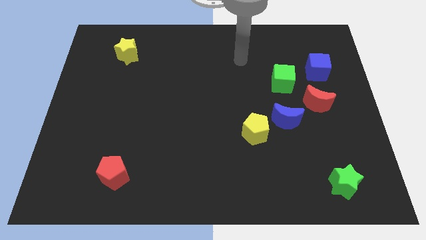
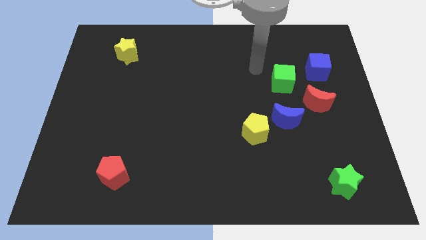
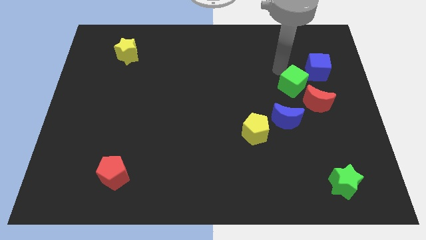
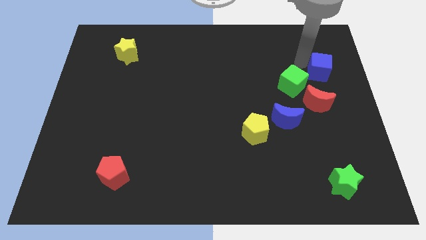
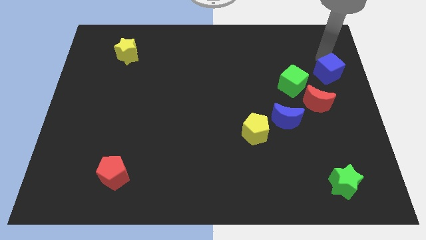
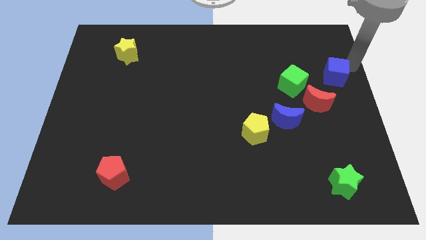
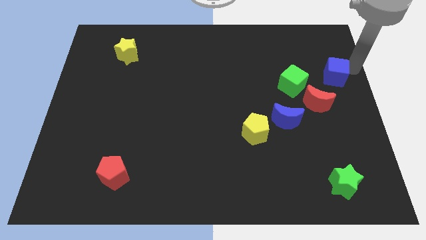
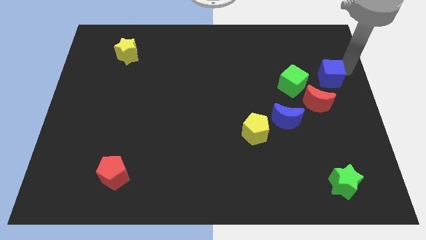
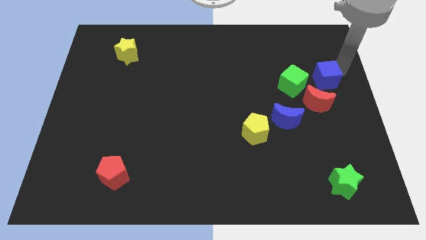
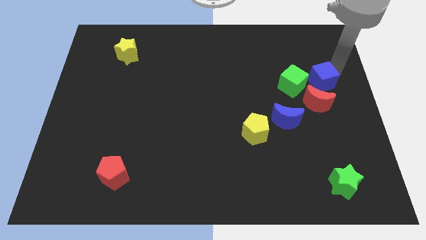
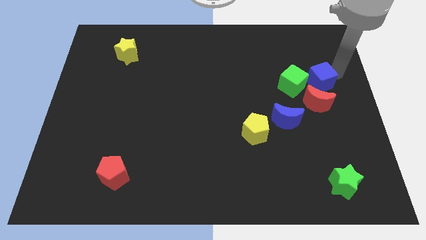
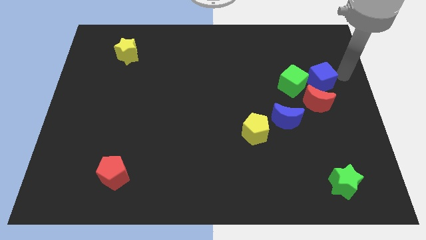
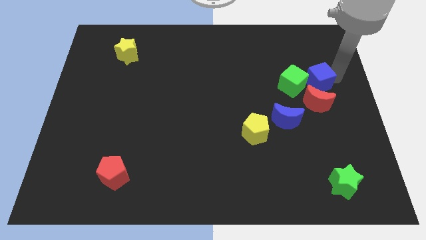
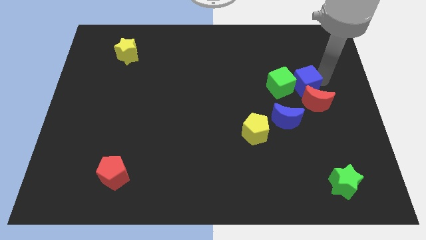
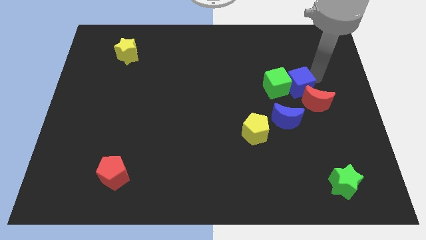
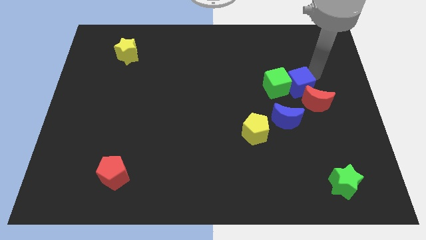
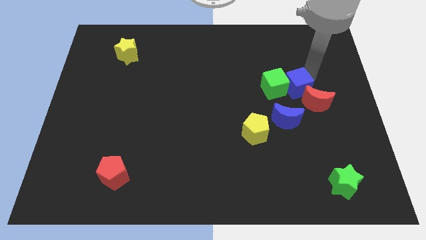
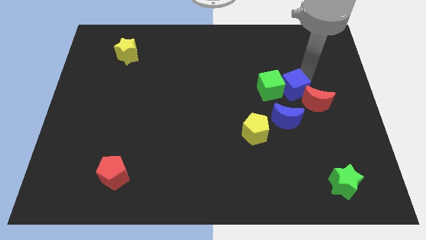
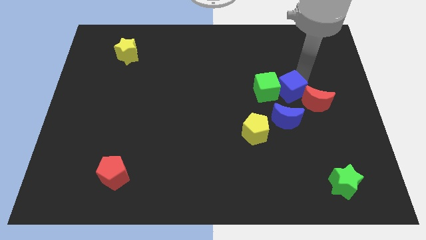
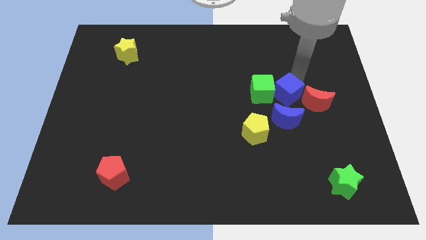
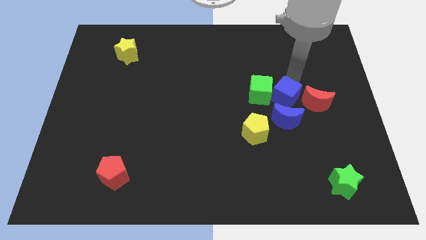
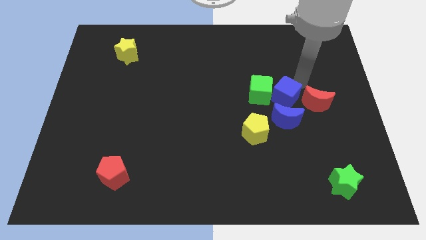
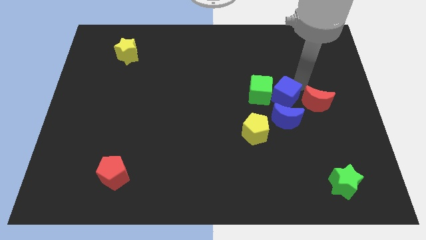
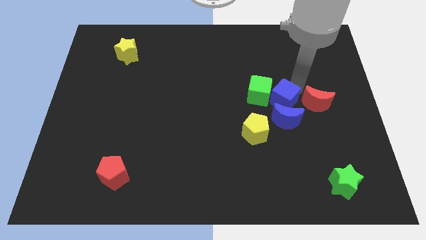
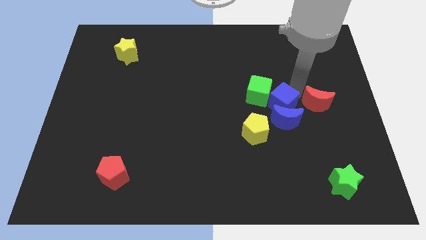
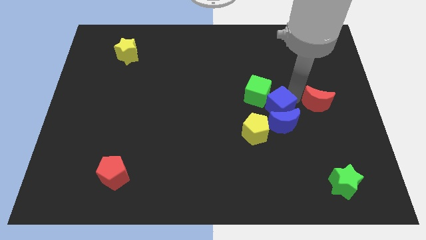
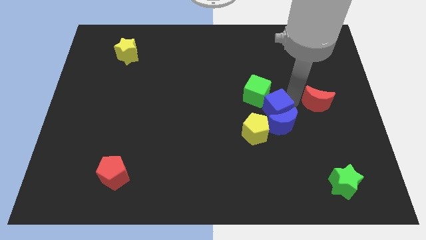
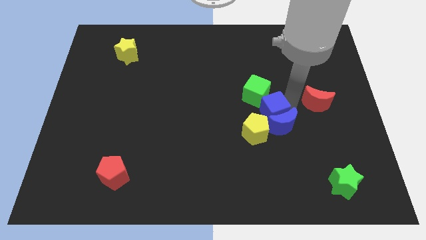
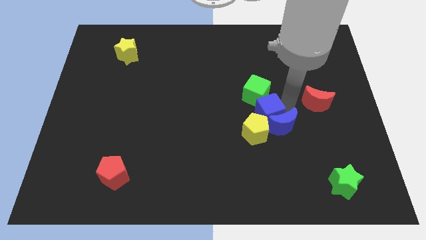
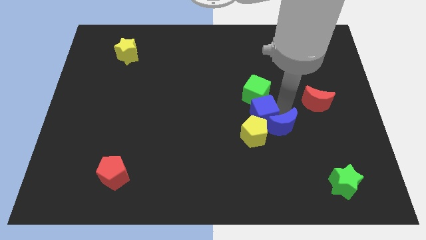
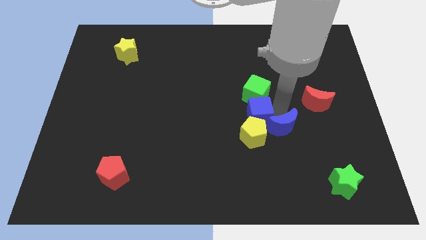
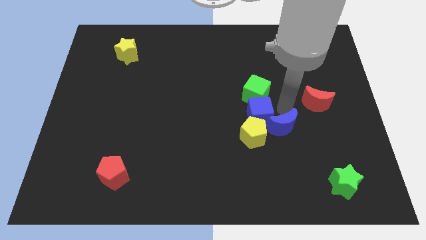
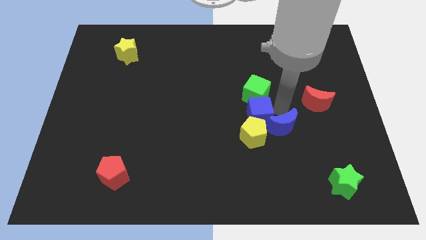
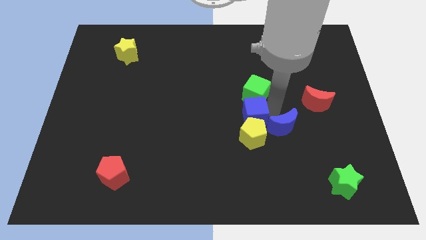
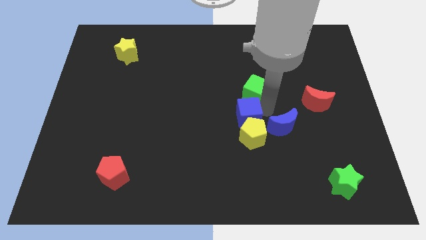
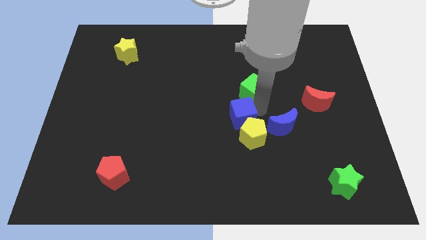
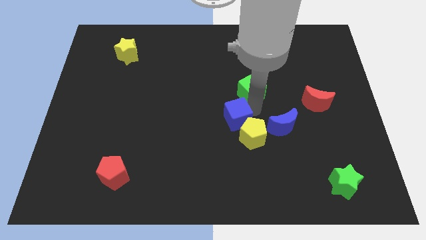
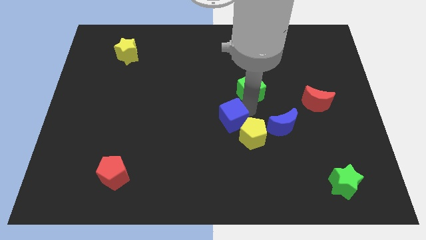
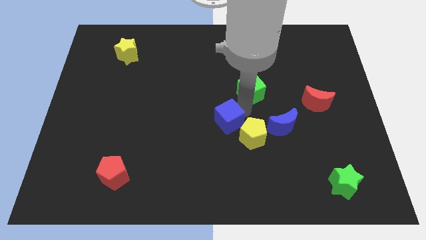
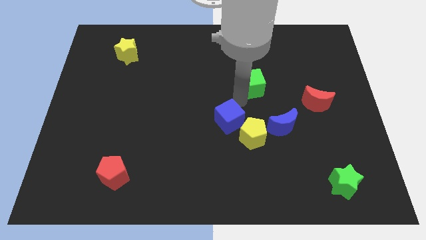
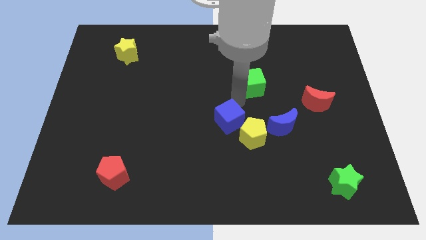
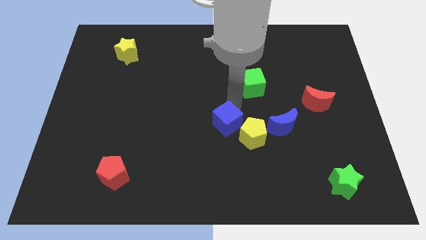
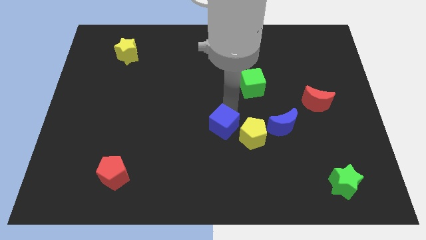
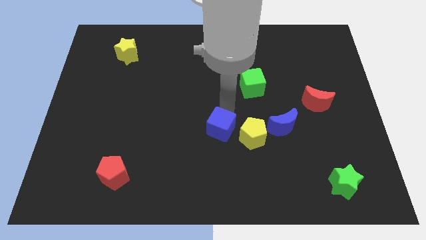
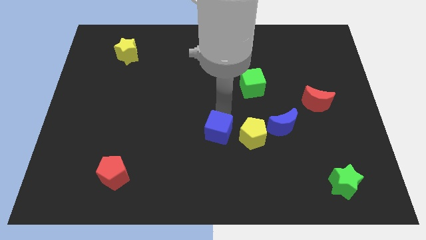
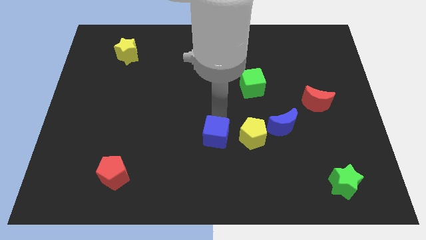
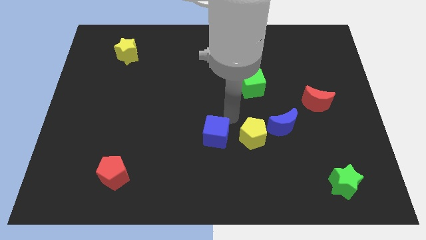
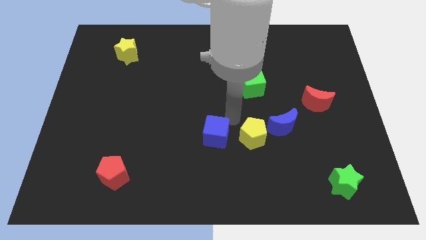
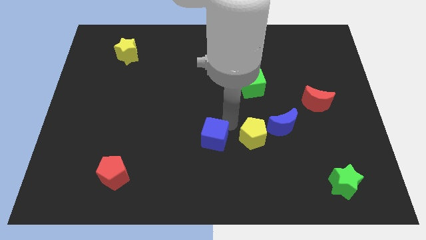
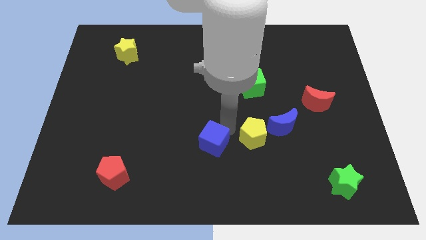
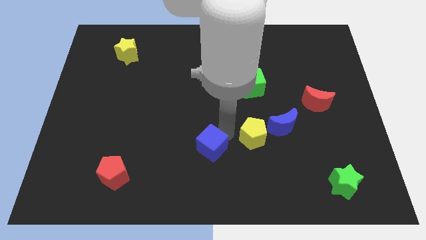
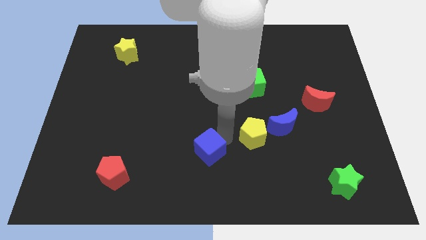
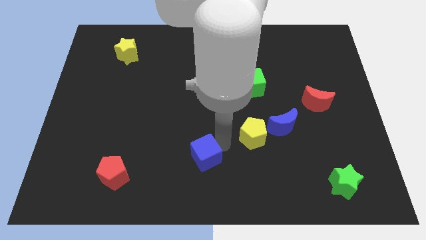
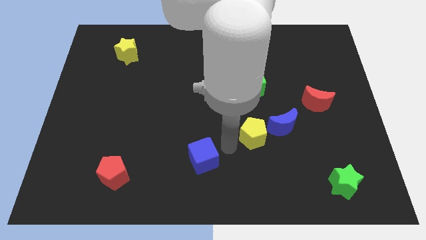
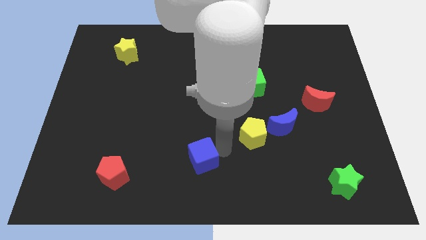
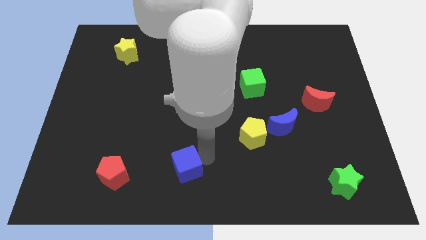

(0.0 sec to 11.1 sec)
push the blue cube to the right side of the red pentagon
